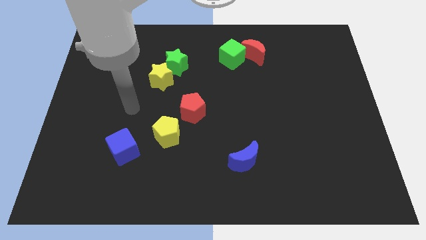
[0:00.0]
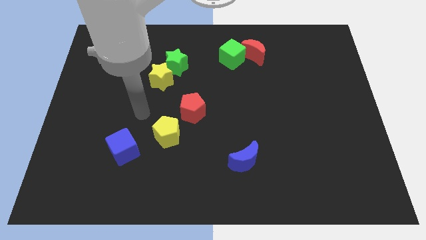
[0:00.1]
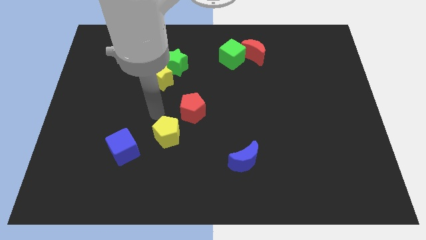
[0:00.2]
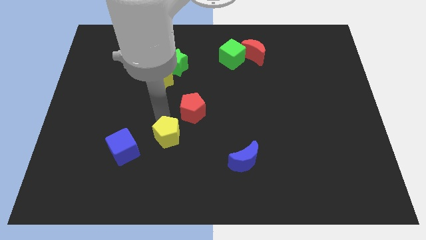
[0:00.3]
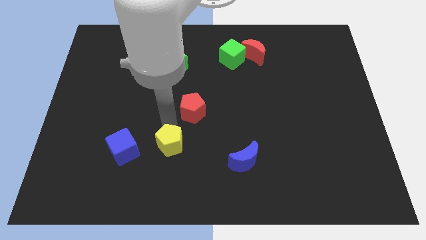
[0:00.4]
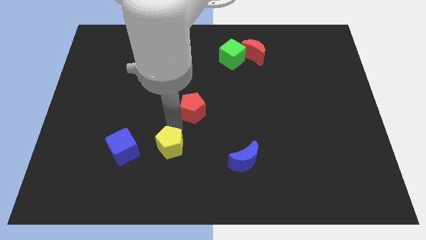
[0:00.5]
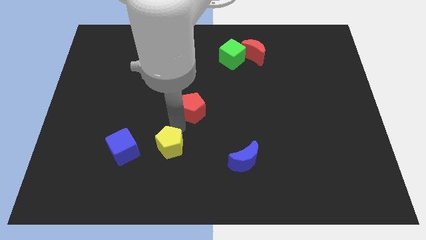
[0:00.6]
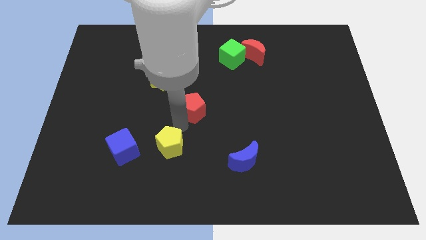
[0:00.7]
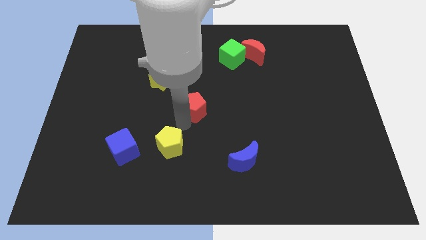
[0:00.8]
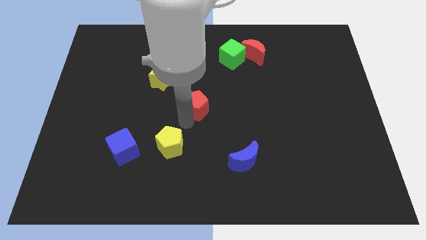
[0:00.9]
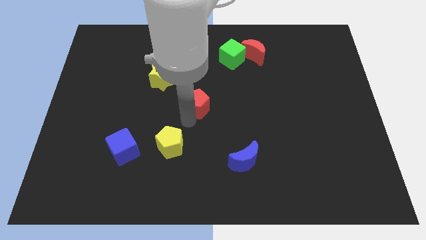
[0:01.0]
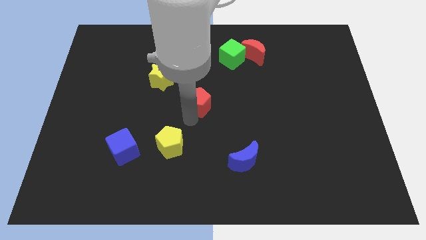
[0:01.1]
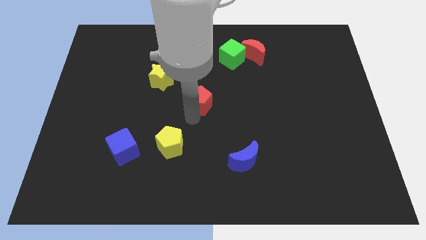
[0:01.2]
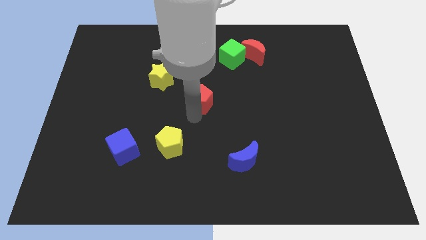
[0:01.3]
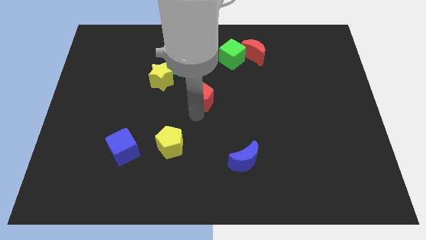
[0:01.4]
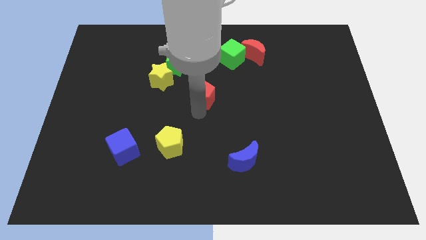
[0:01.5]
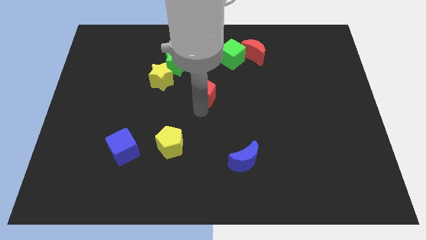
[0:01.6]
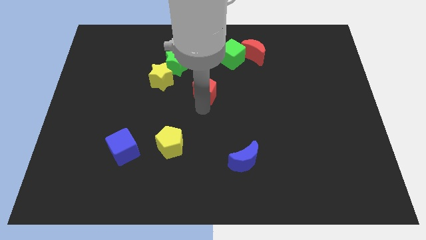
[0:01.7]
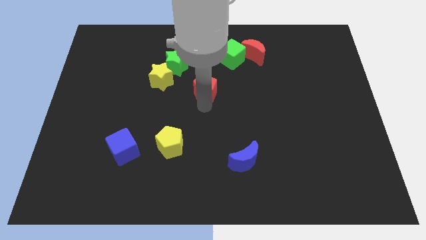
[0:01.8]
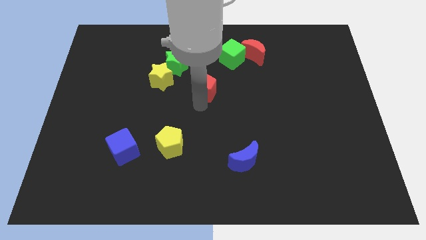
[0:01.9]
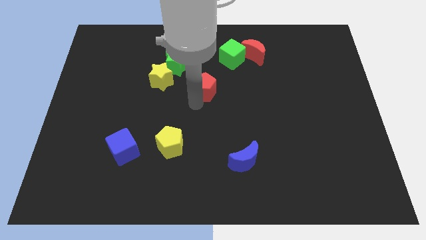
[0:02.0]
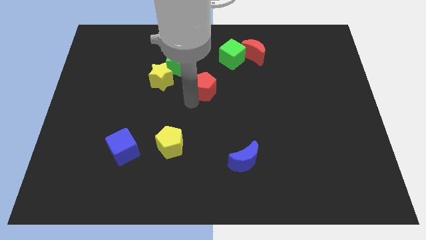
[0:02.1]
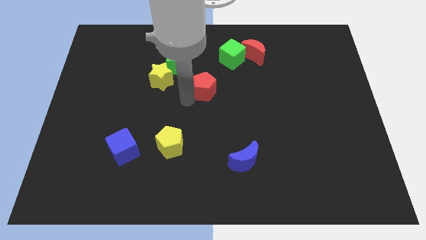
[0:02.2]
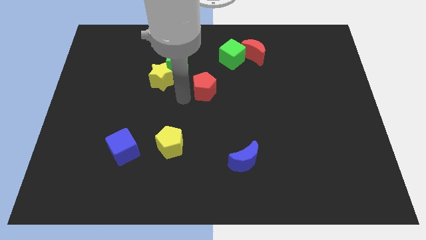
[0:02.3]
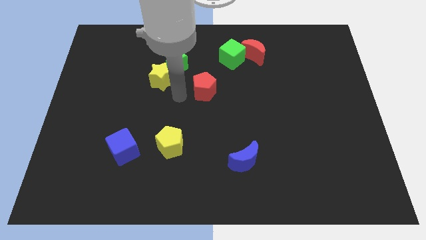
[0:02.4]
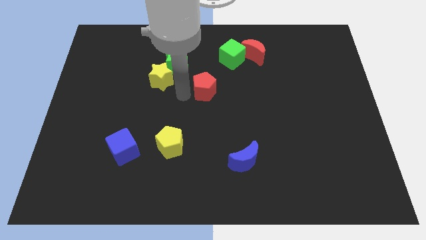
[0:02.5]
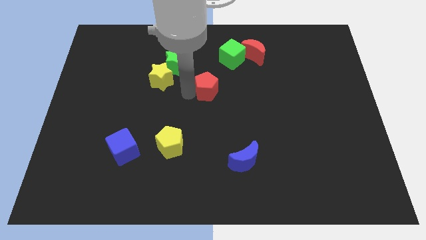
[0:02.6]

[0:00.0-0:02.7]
move the red pentagon upwards and then right a little bit

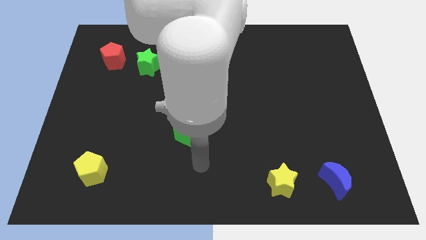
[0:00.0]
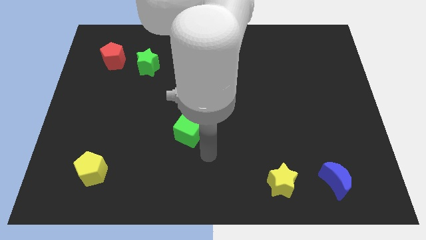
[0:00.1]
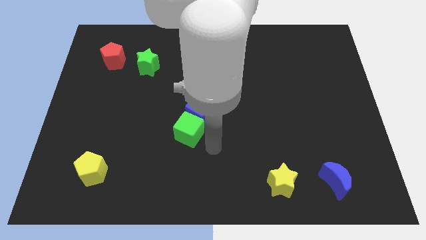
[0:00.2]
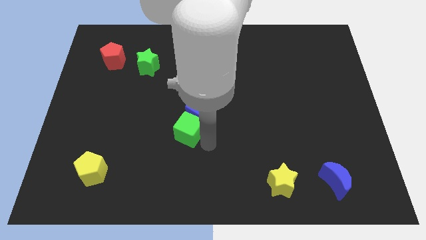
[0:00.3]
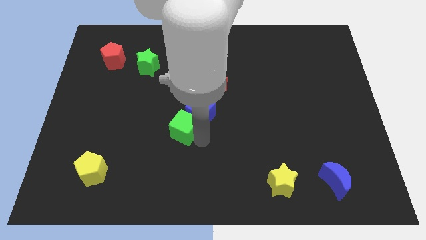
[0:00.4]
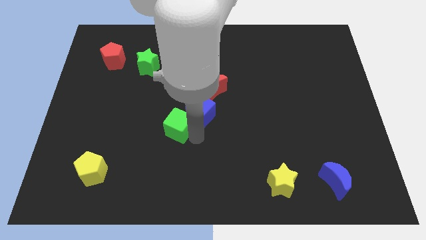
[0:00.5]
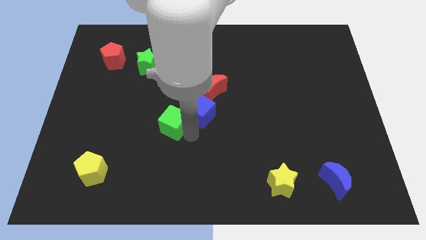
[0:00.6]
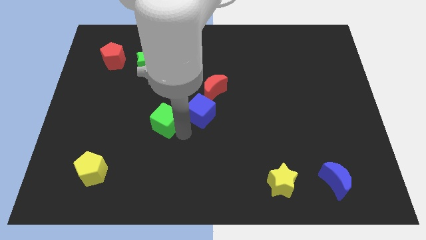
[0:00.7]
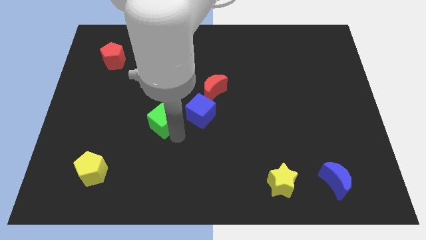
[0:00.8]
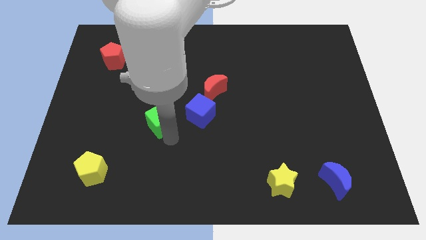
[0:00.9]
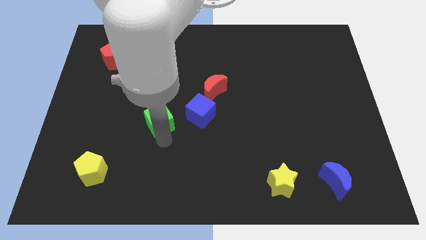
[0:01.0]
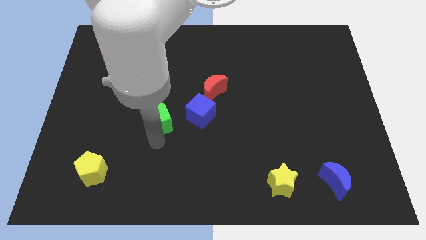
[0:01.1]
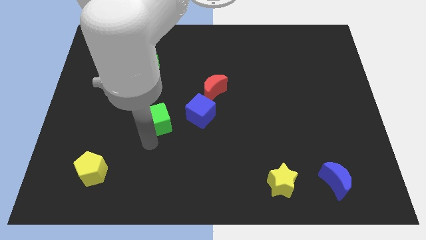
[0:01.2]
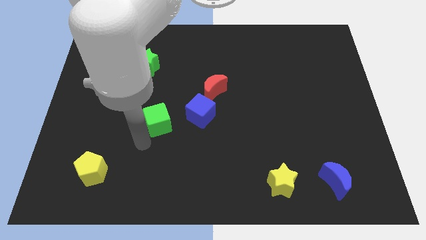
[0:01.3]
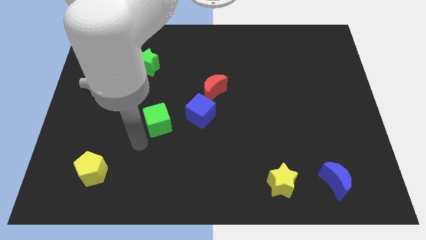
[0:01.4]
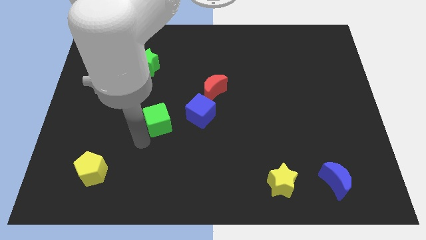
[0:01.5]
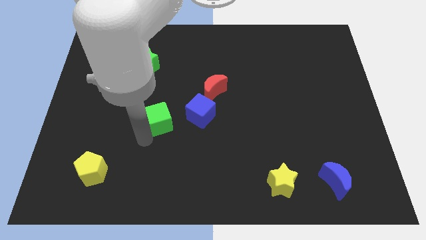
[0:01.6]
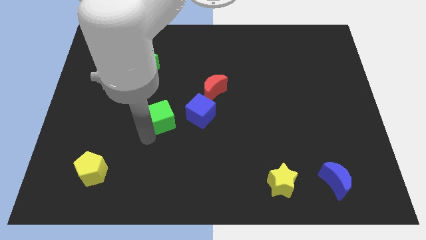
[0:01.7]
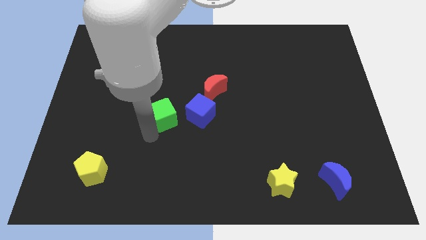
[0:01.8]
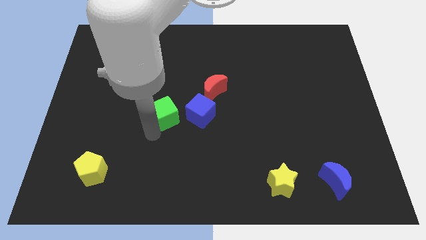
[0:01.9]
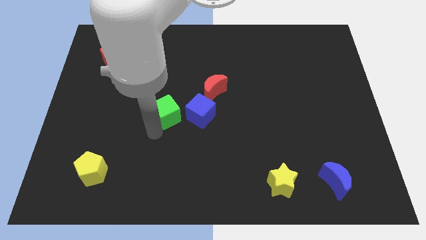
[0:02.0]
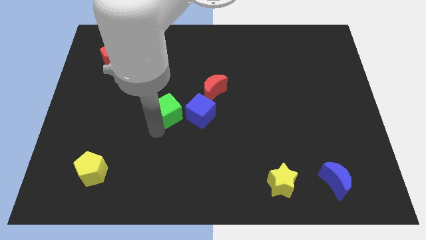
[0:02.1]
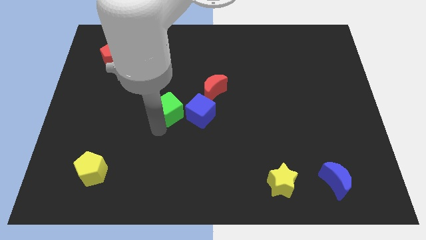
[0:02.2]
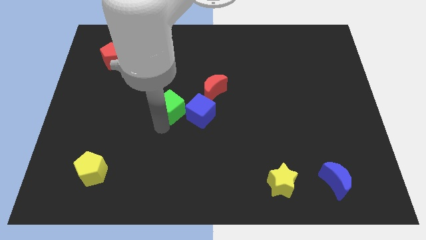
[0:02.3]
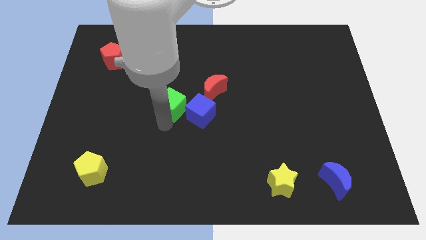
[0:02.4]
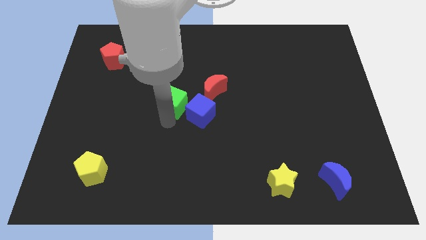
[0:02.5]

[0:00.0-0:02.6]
move the green cube slightly upwards

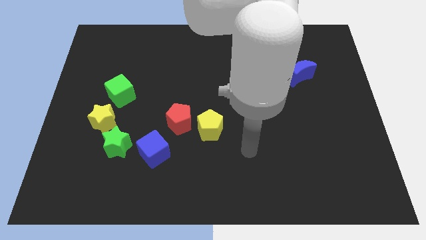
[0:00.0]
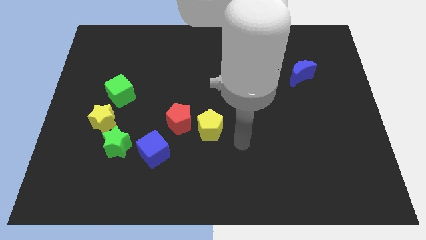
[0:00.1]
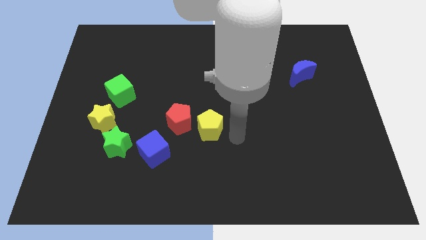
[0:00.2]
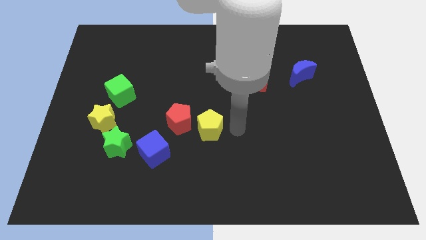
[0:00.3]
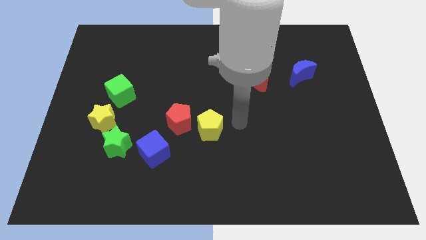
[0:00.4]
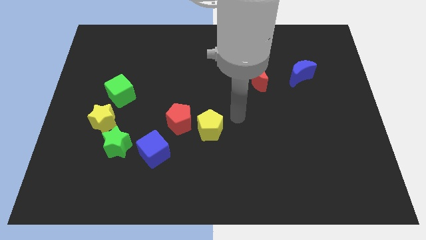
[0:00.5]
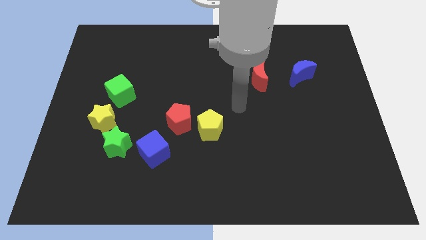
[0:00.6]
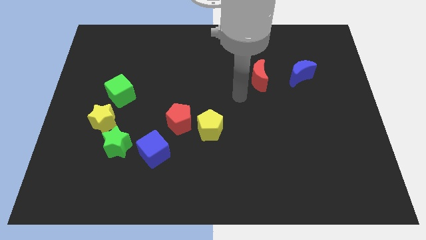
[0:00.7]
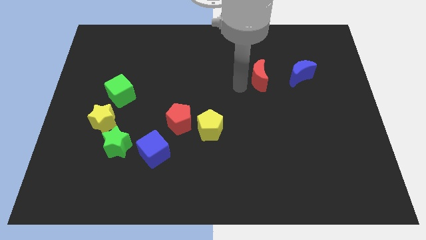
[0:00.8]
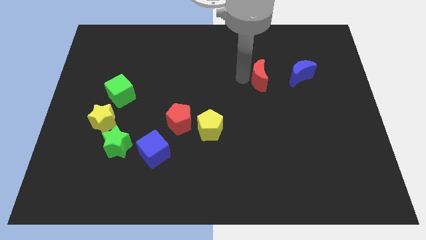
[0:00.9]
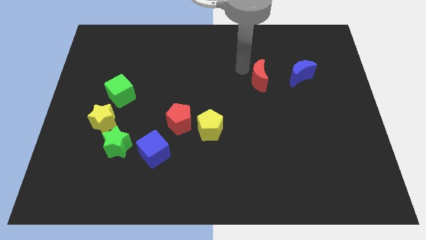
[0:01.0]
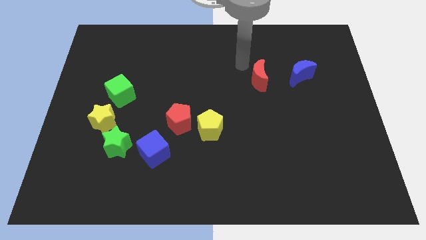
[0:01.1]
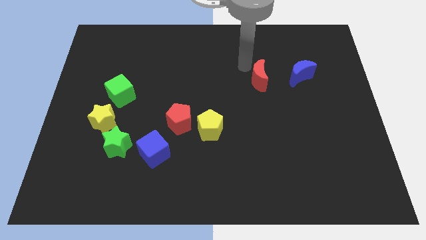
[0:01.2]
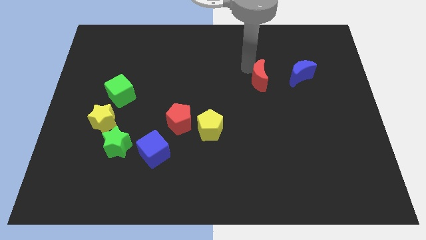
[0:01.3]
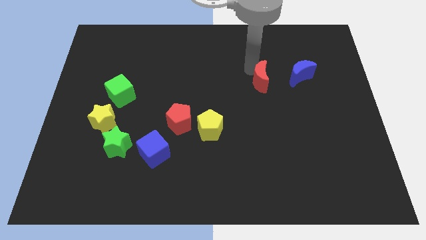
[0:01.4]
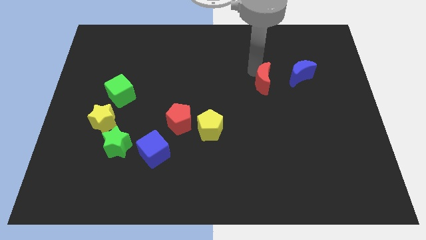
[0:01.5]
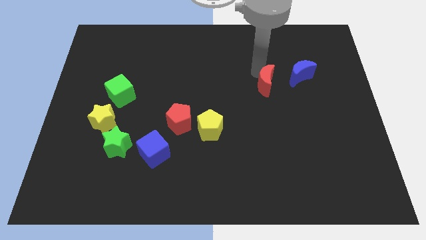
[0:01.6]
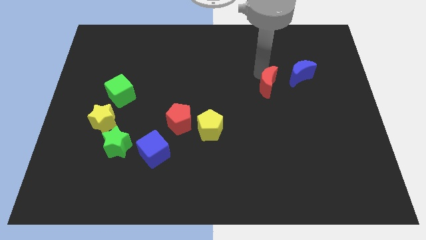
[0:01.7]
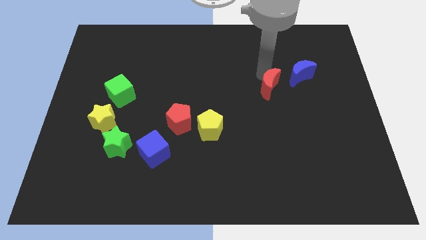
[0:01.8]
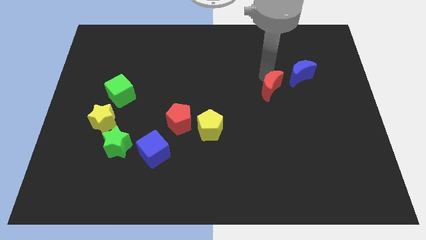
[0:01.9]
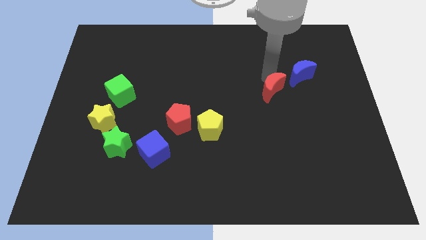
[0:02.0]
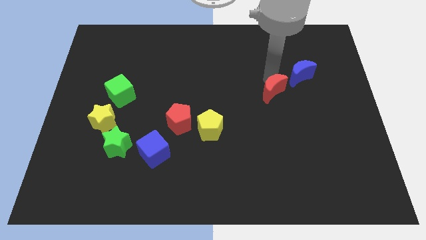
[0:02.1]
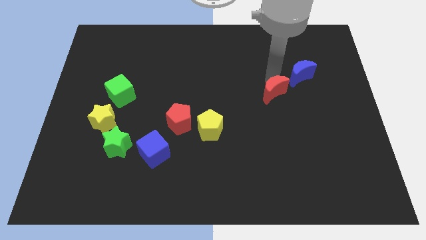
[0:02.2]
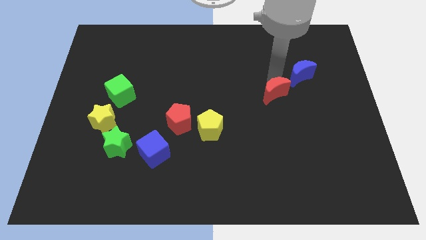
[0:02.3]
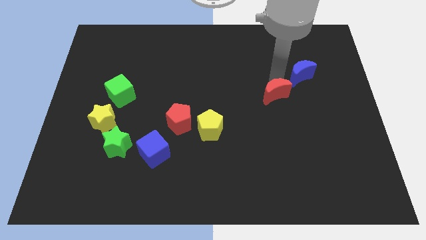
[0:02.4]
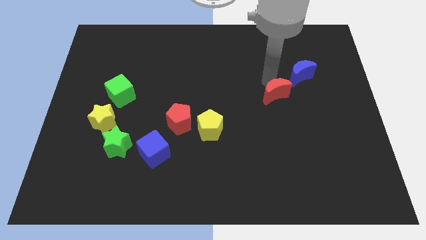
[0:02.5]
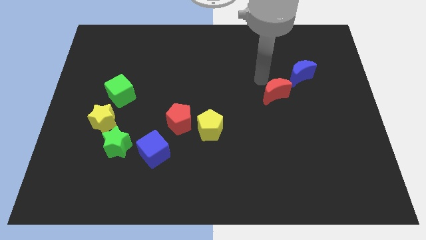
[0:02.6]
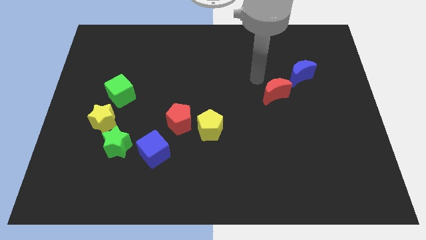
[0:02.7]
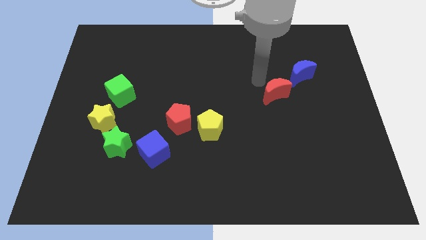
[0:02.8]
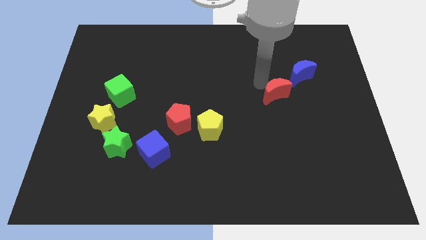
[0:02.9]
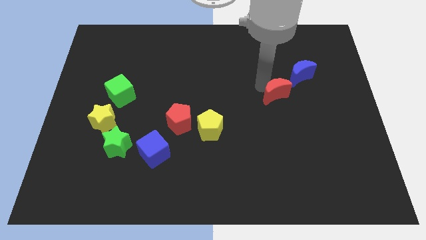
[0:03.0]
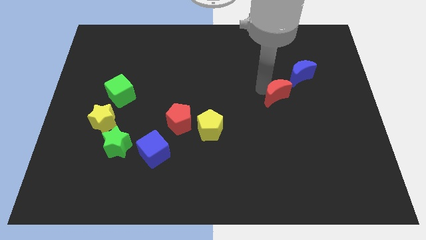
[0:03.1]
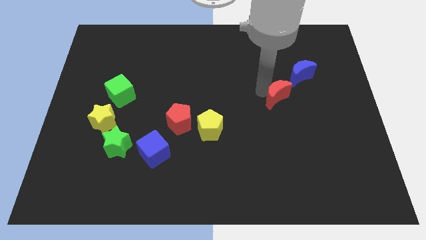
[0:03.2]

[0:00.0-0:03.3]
slide the red moon downwards and right a bit
